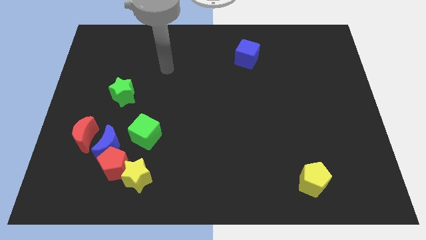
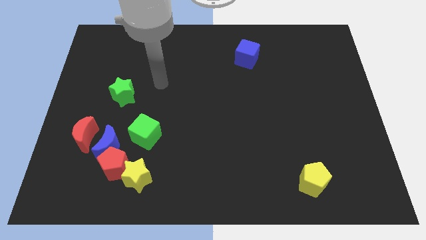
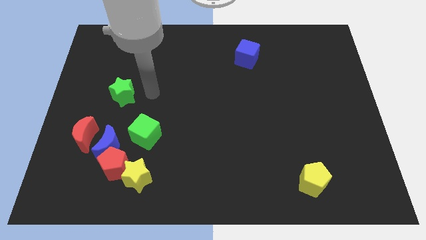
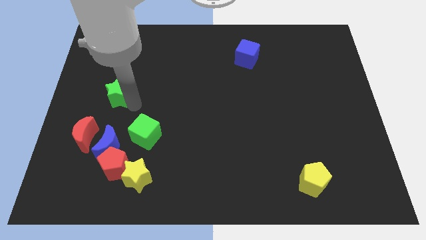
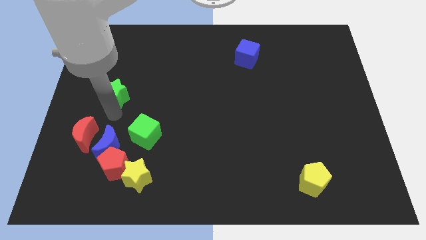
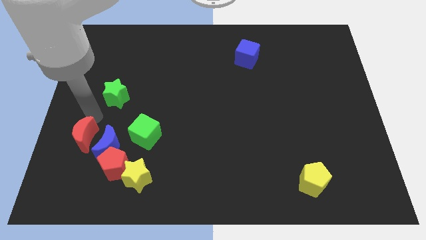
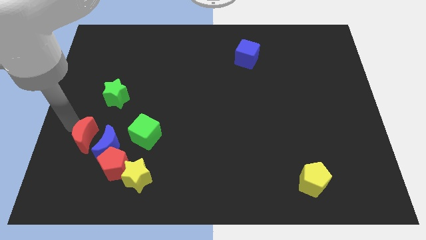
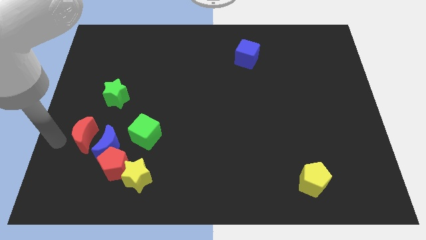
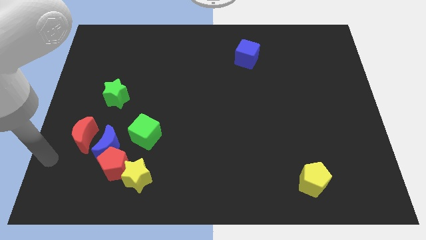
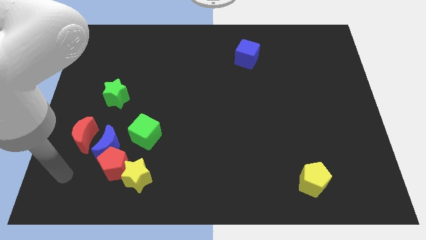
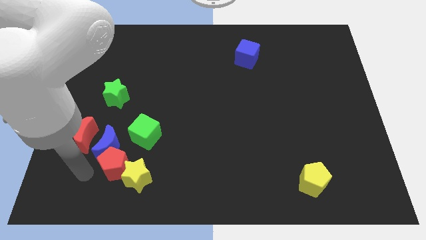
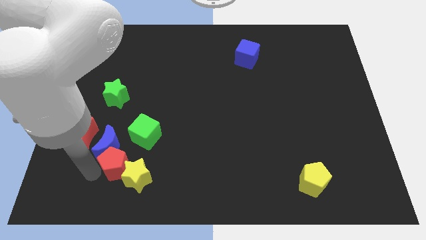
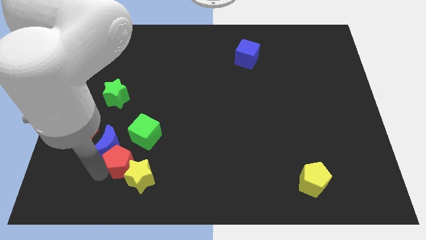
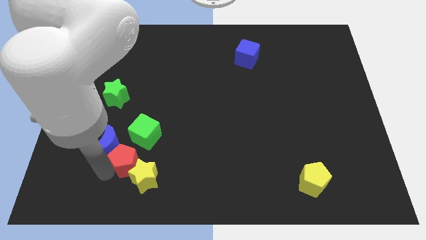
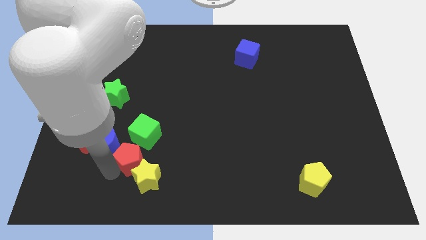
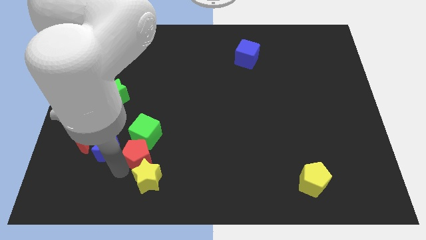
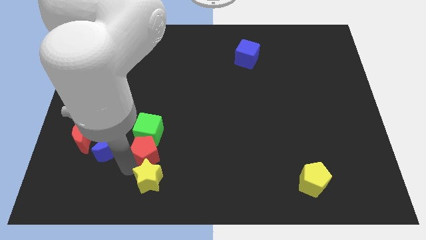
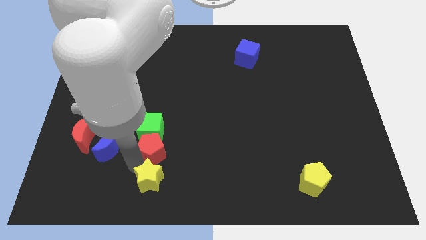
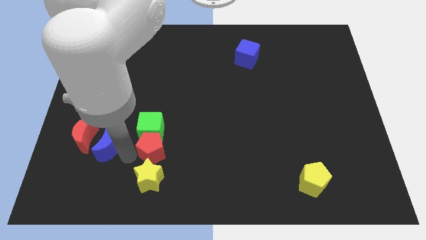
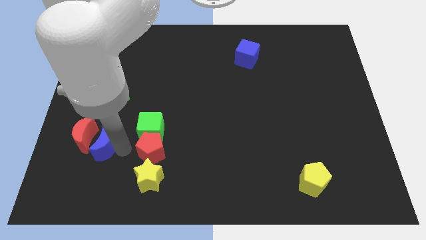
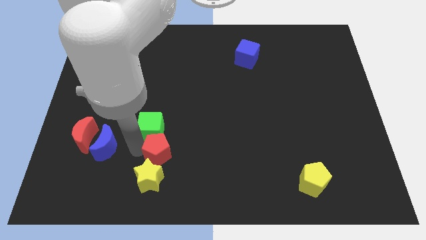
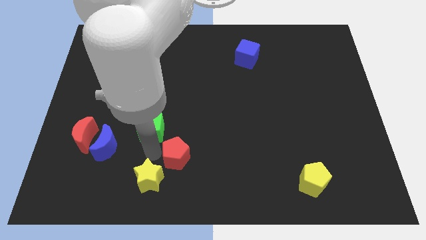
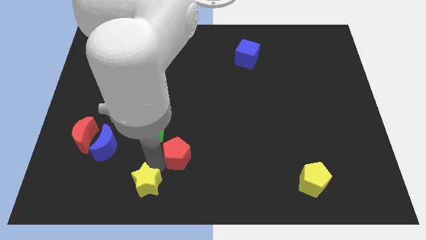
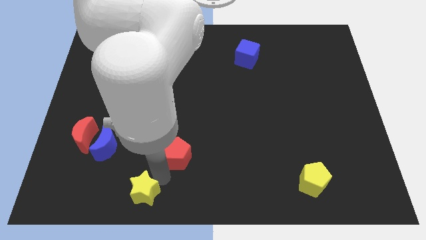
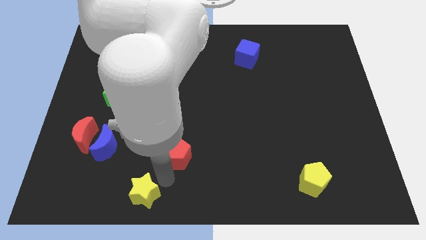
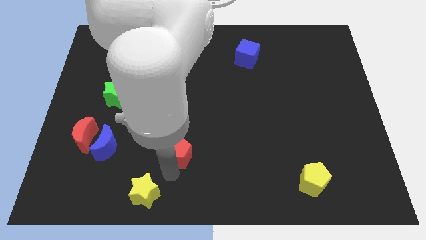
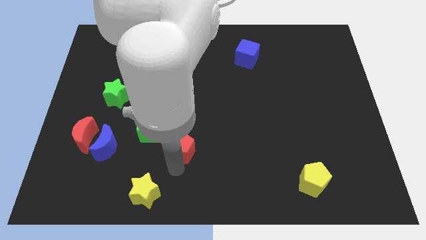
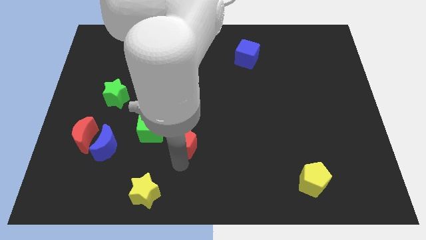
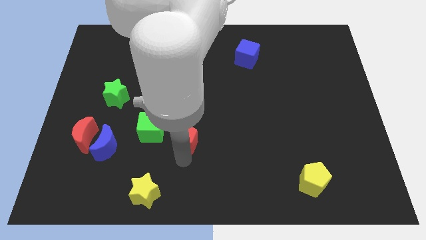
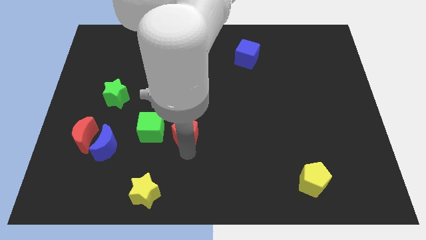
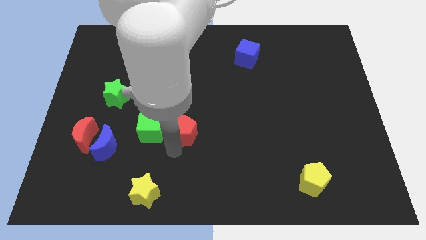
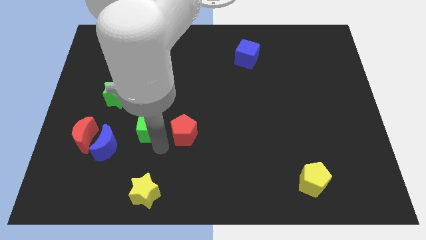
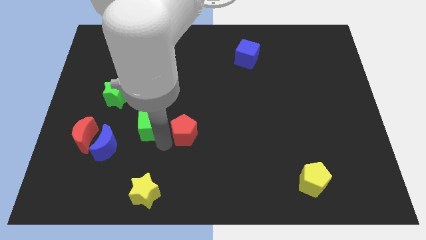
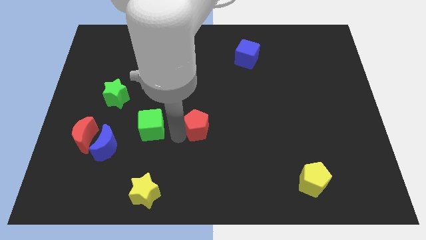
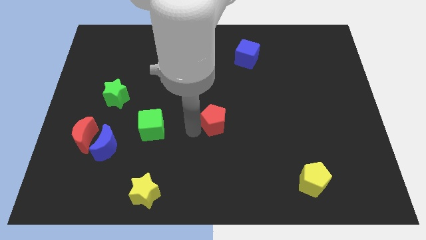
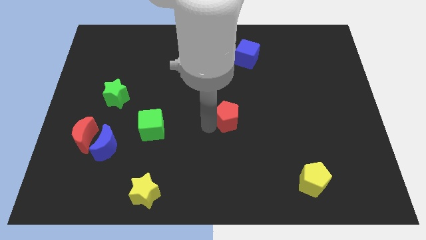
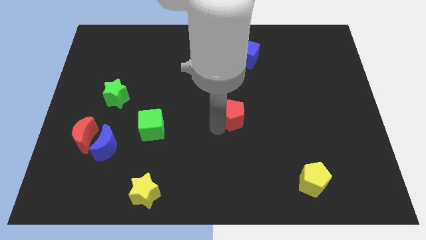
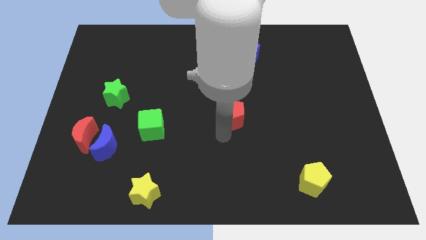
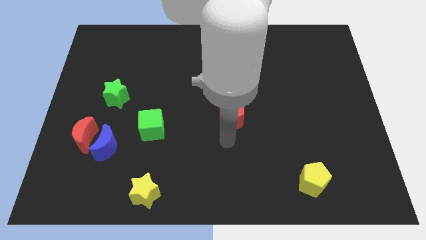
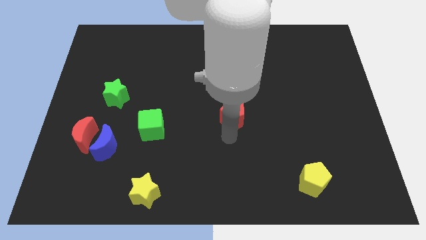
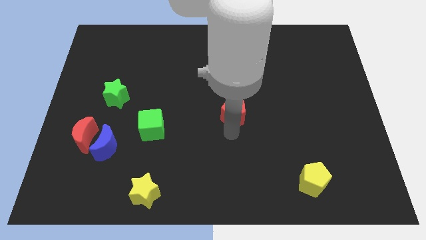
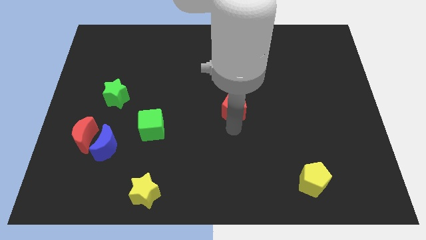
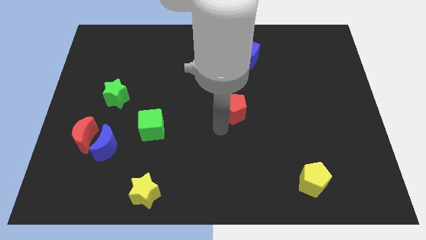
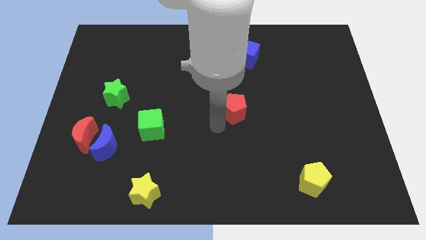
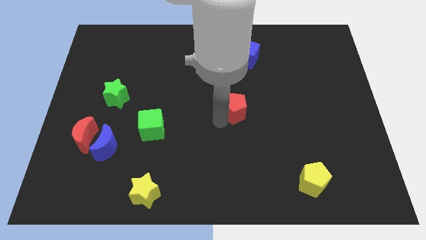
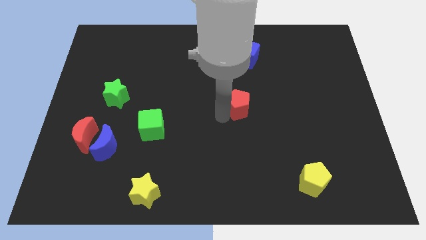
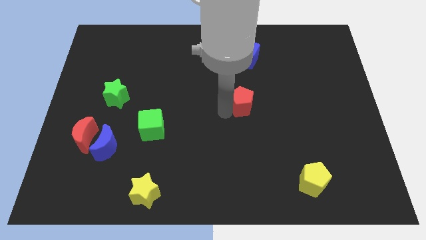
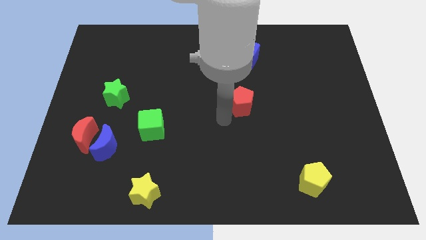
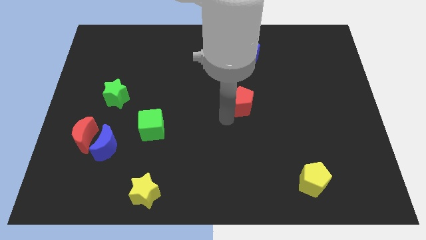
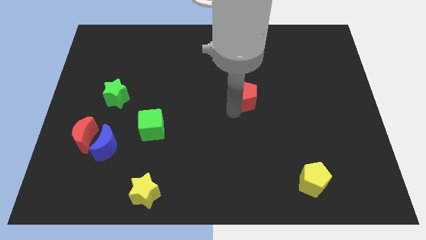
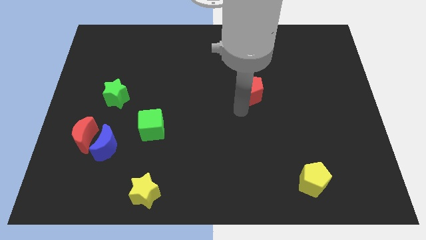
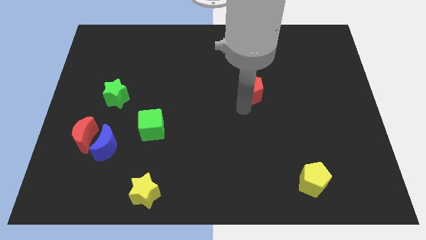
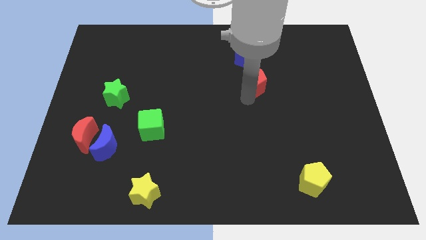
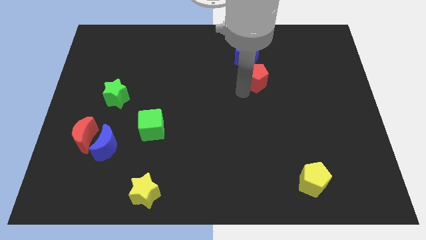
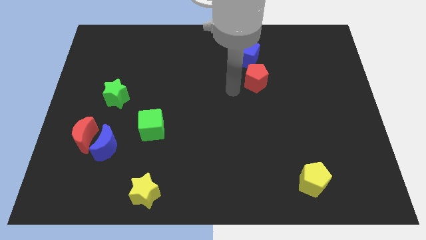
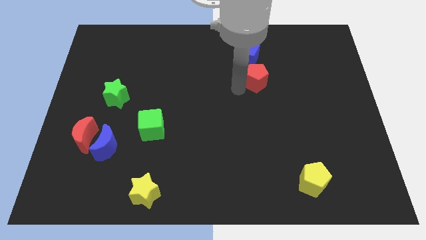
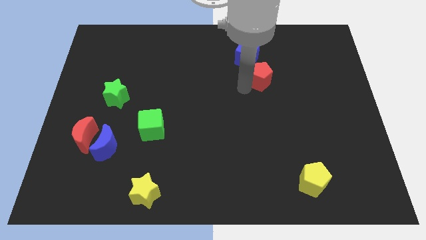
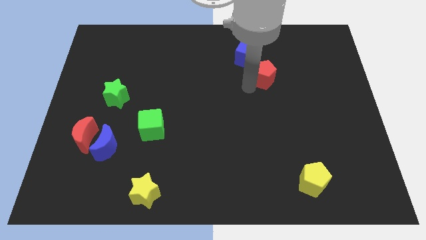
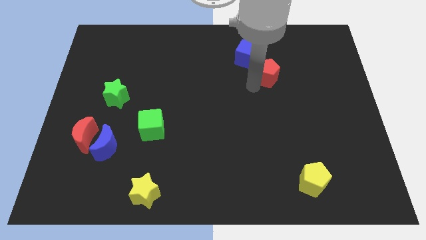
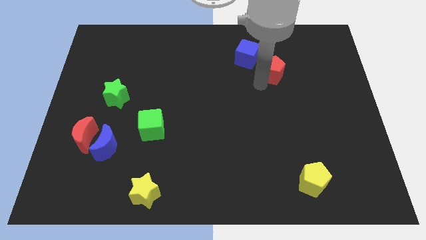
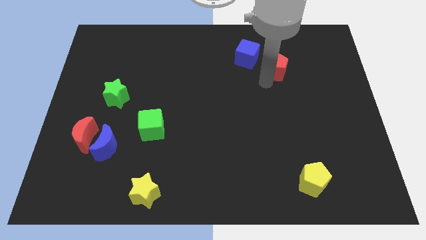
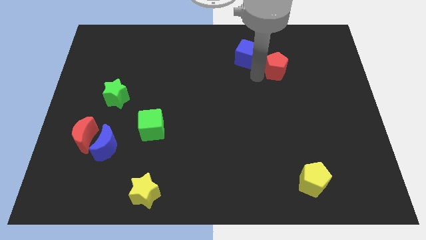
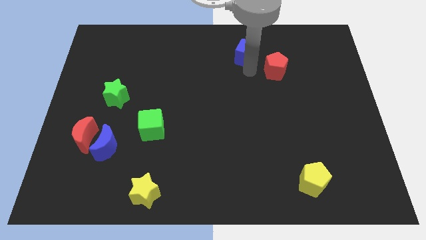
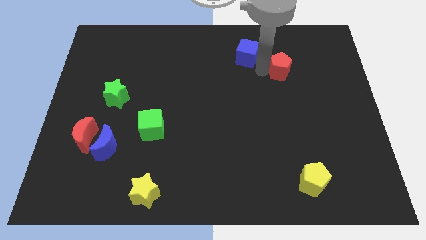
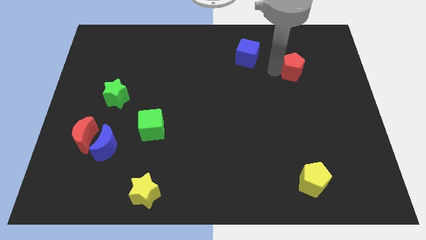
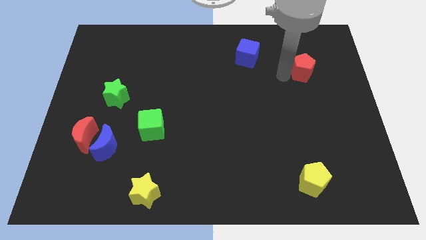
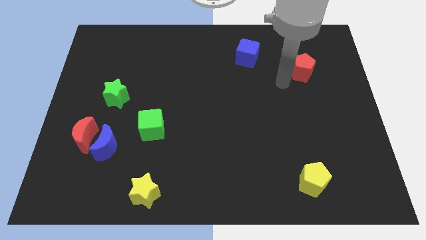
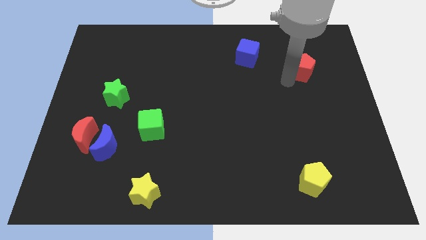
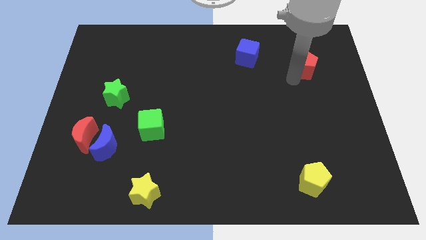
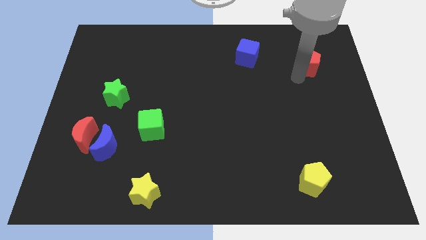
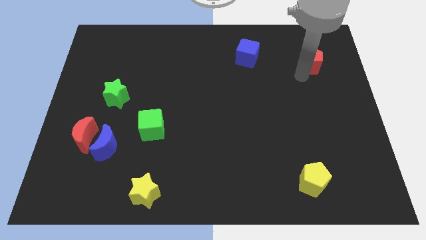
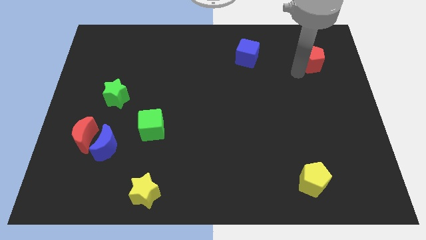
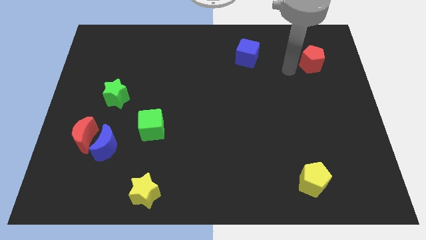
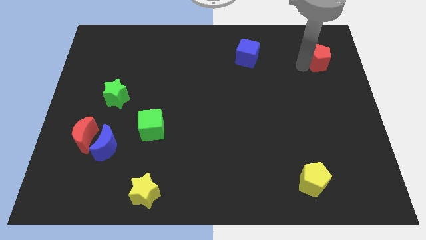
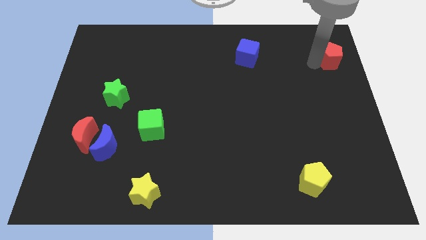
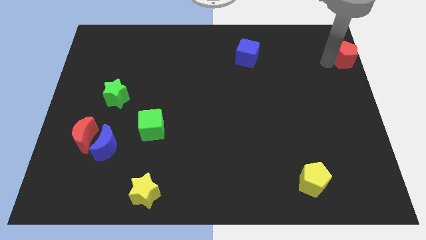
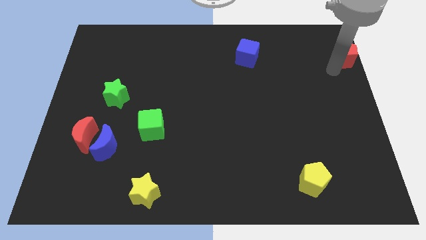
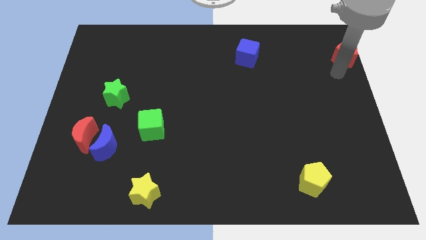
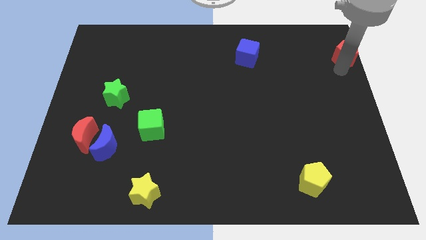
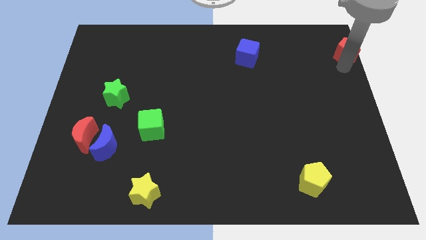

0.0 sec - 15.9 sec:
put the red pentagon to the top right corner
